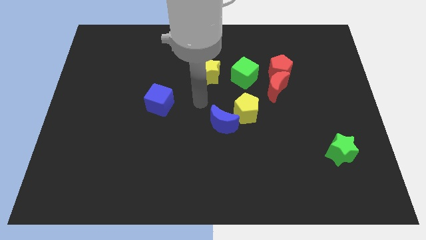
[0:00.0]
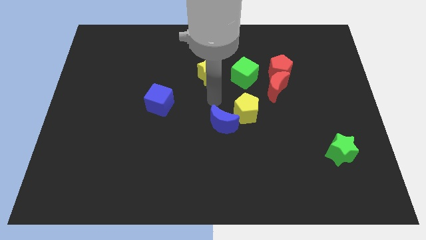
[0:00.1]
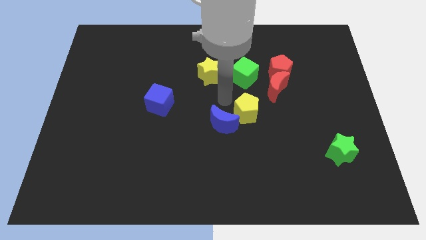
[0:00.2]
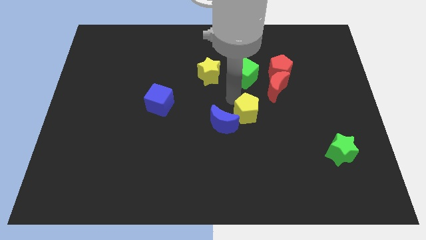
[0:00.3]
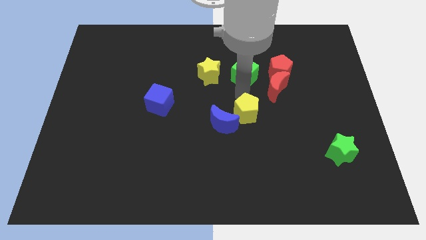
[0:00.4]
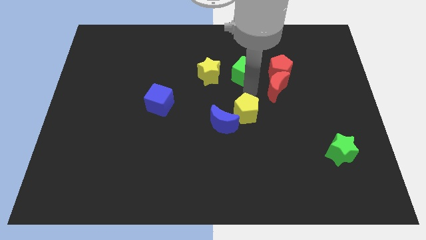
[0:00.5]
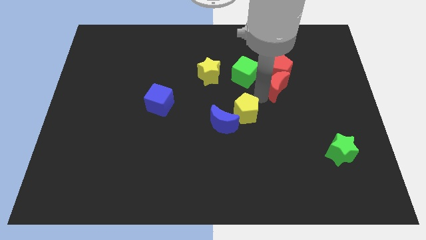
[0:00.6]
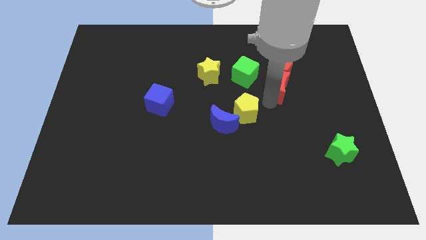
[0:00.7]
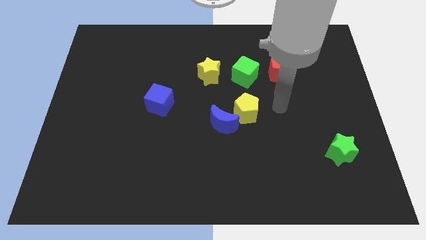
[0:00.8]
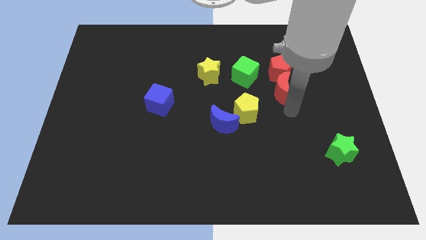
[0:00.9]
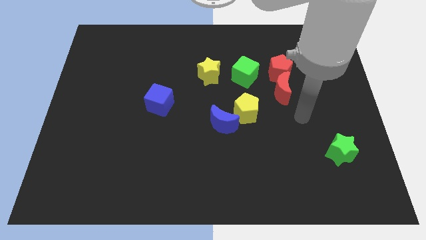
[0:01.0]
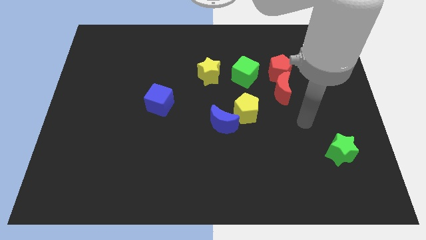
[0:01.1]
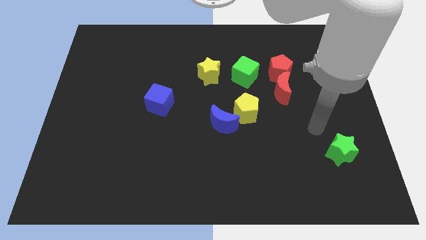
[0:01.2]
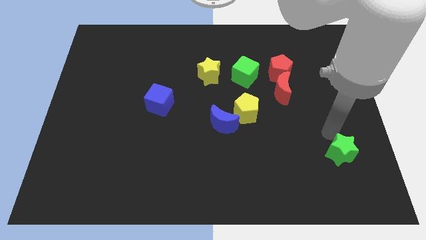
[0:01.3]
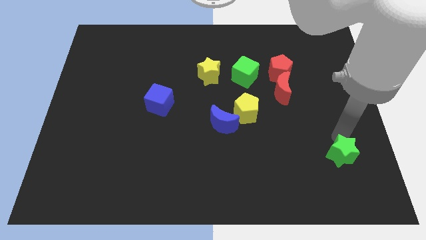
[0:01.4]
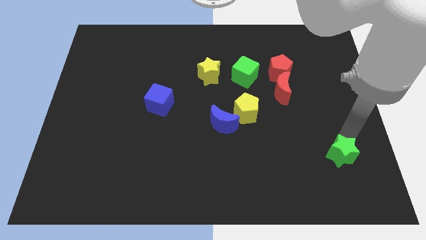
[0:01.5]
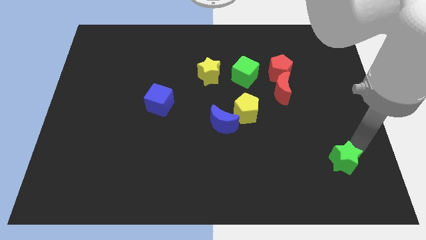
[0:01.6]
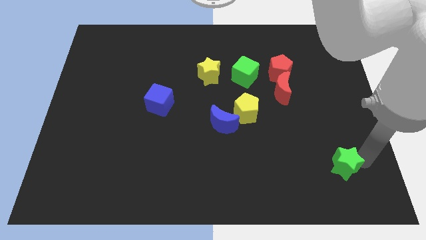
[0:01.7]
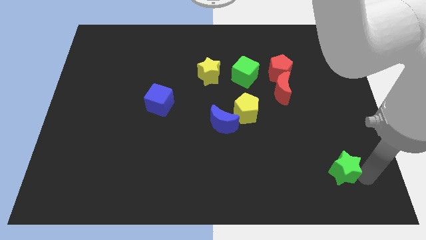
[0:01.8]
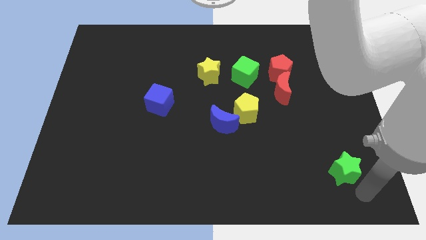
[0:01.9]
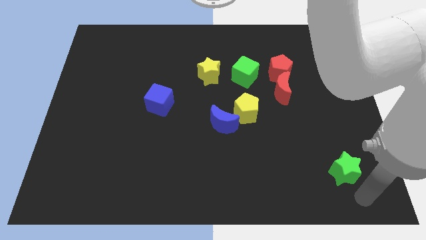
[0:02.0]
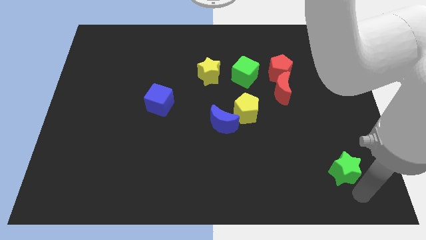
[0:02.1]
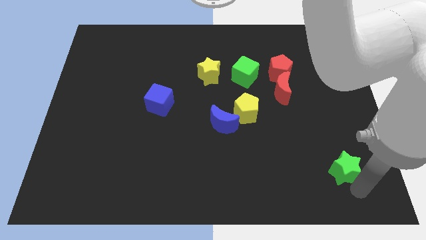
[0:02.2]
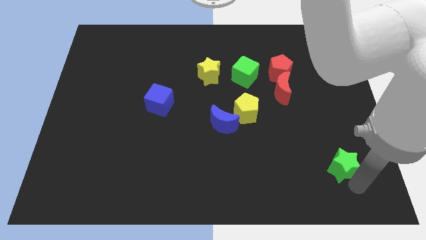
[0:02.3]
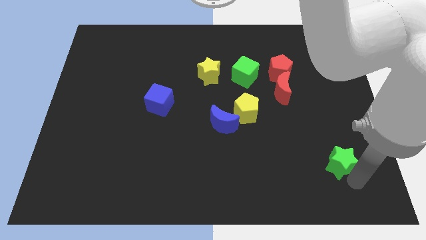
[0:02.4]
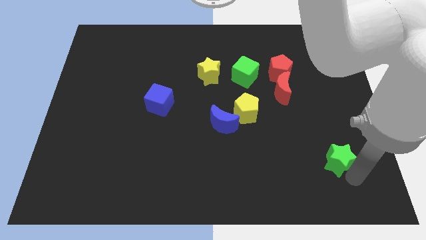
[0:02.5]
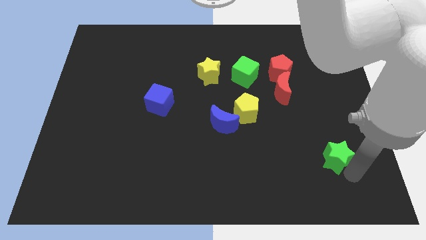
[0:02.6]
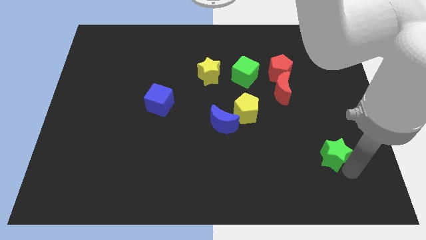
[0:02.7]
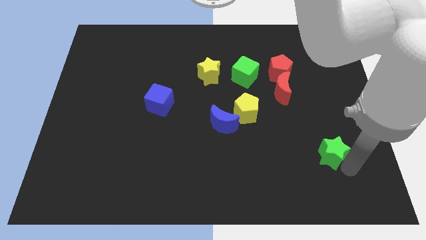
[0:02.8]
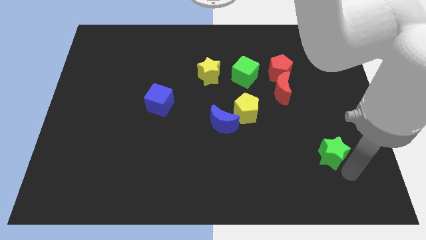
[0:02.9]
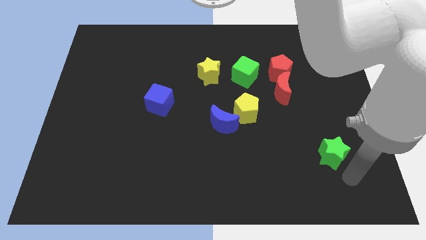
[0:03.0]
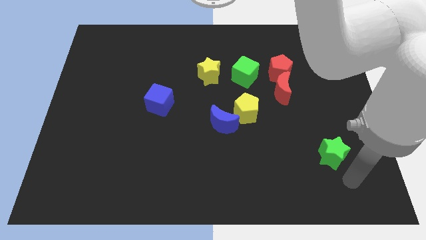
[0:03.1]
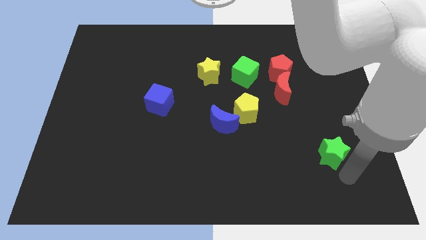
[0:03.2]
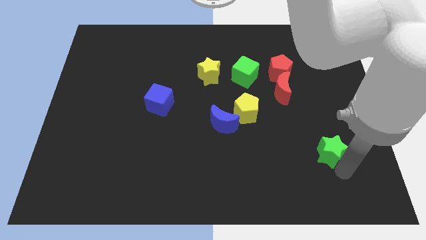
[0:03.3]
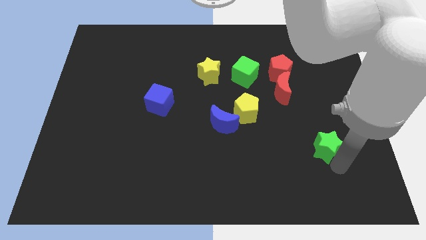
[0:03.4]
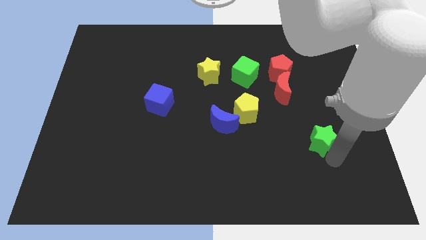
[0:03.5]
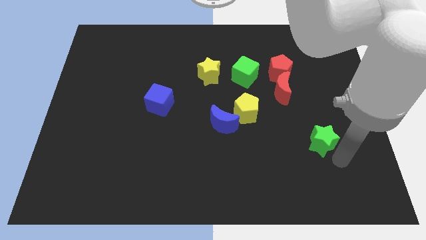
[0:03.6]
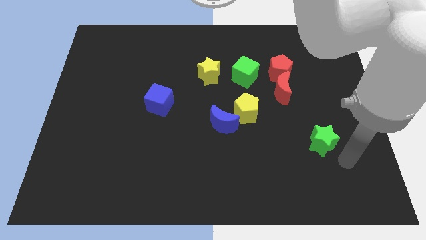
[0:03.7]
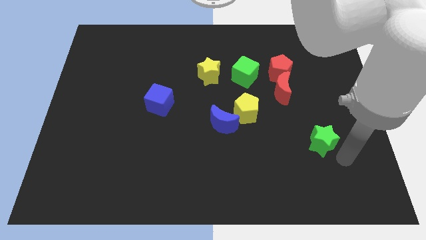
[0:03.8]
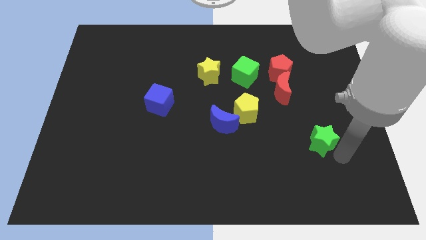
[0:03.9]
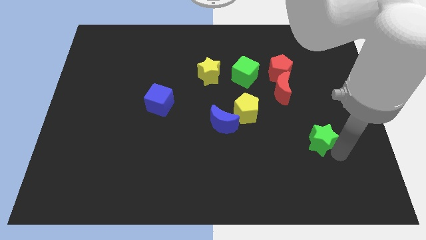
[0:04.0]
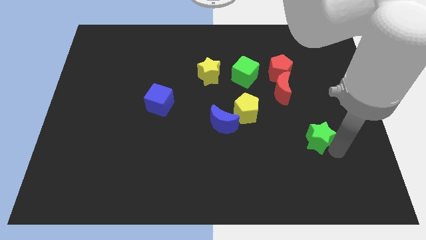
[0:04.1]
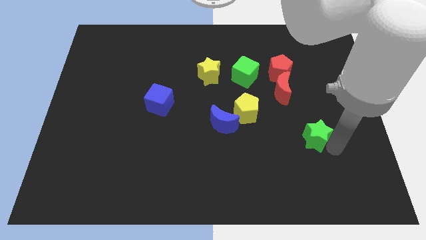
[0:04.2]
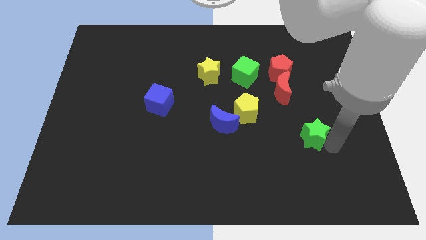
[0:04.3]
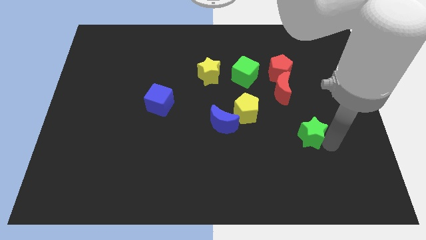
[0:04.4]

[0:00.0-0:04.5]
slightly push the green star upwards and to the left

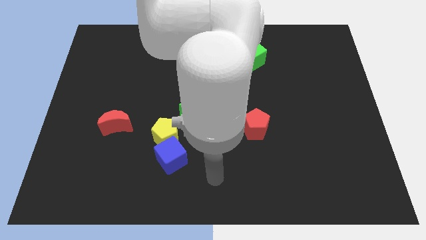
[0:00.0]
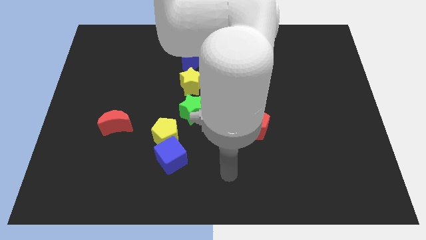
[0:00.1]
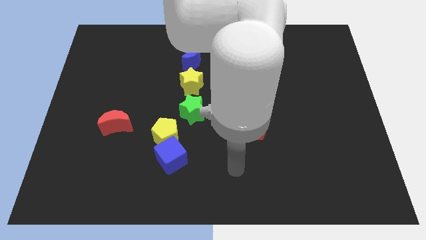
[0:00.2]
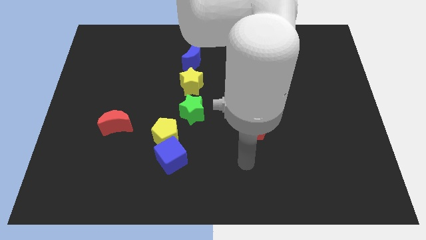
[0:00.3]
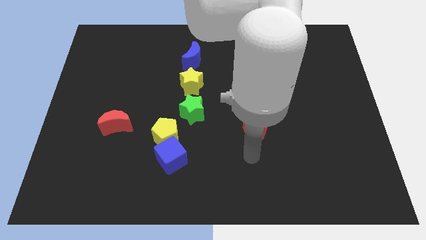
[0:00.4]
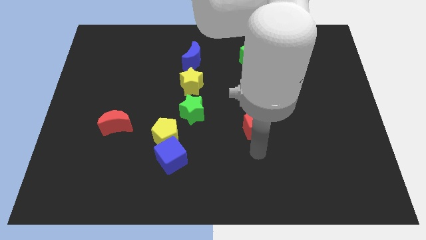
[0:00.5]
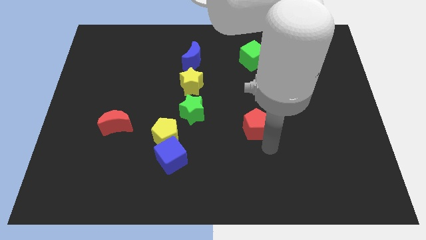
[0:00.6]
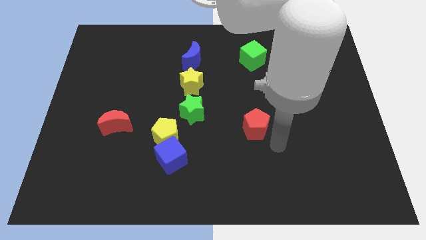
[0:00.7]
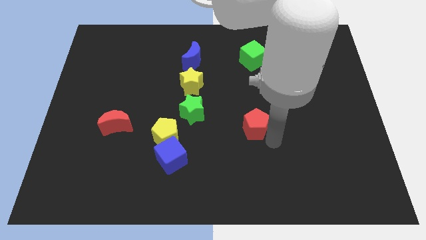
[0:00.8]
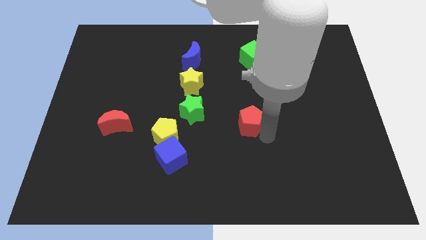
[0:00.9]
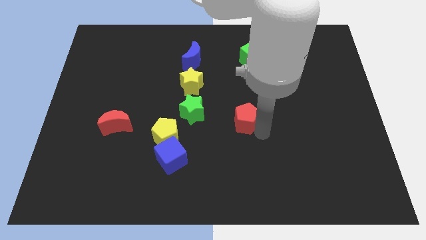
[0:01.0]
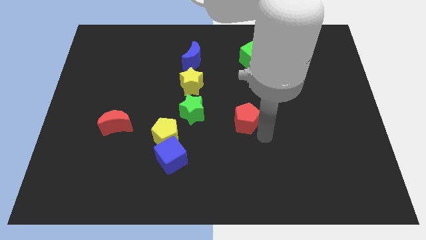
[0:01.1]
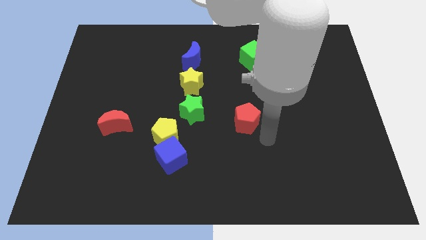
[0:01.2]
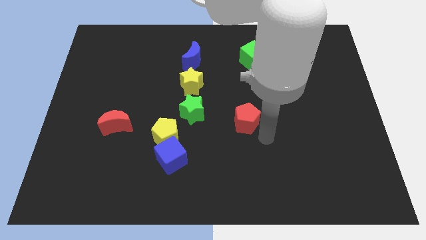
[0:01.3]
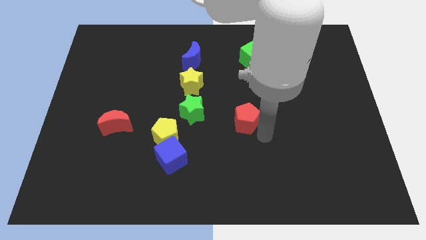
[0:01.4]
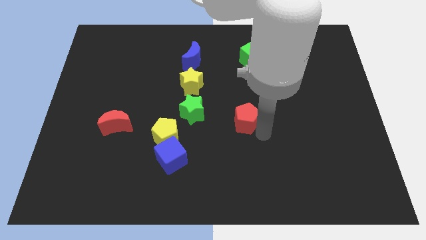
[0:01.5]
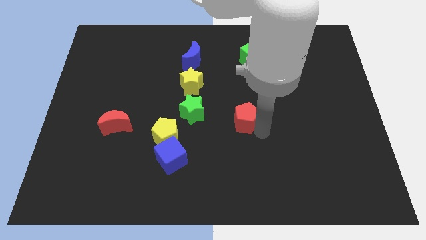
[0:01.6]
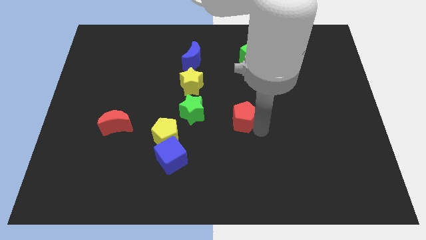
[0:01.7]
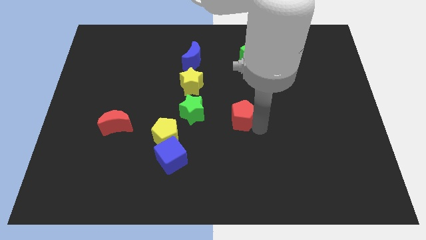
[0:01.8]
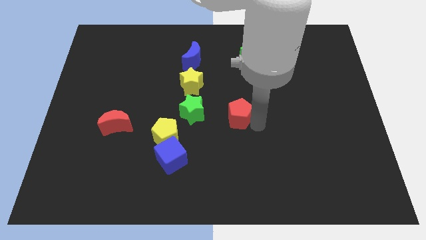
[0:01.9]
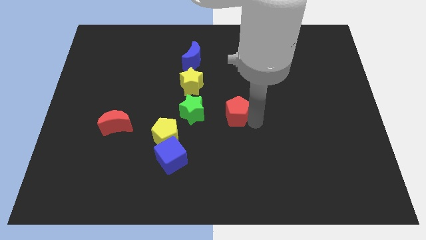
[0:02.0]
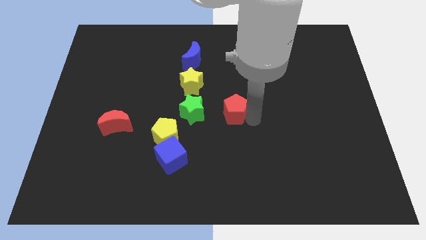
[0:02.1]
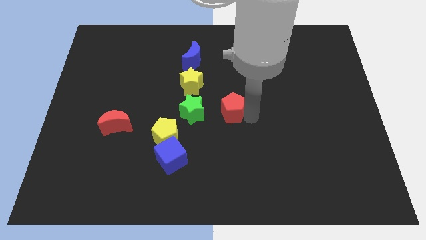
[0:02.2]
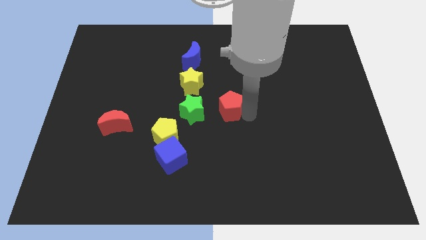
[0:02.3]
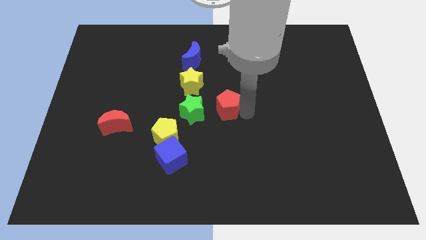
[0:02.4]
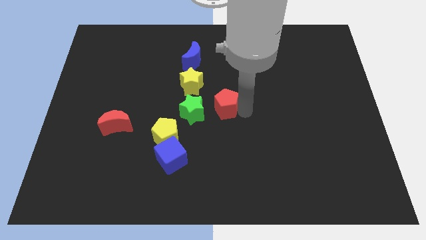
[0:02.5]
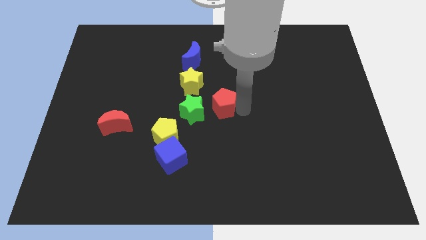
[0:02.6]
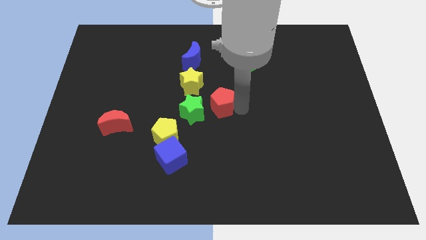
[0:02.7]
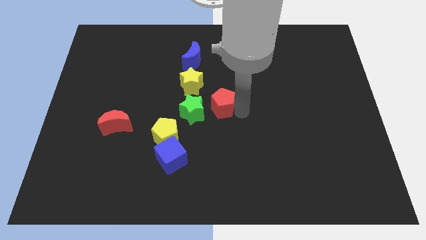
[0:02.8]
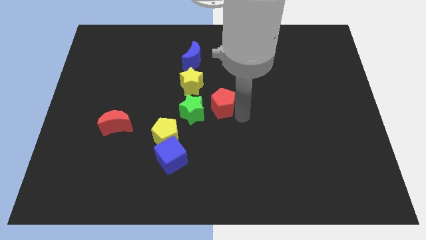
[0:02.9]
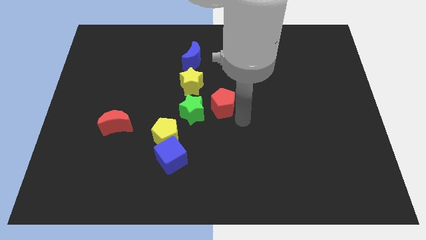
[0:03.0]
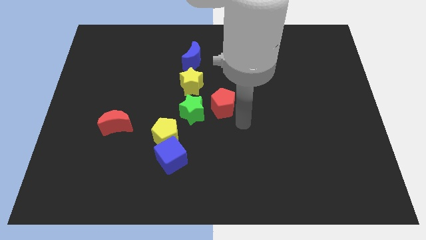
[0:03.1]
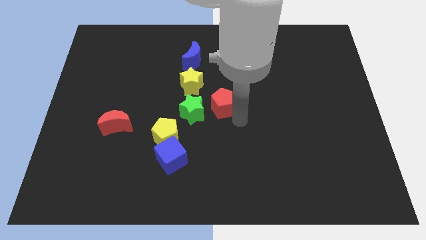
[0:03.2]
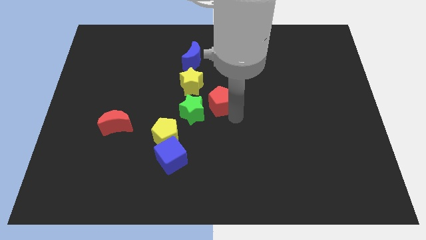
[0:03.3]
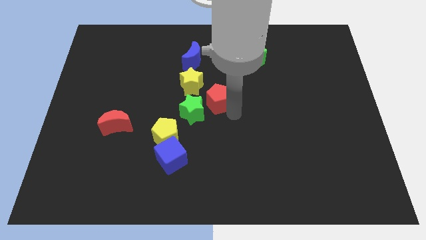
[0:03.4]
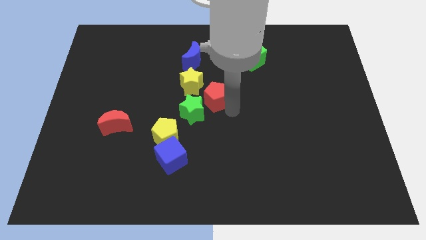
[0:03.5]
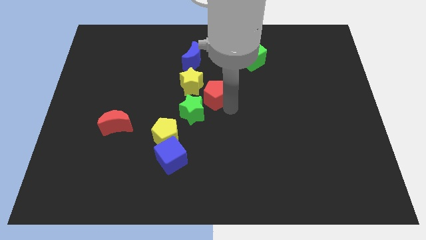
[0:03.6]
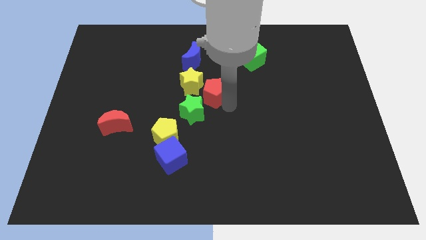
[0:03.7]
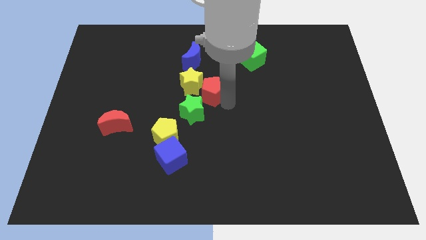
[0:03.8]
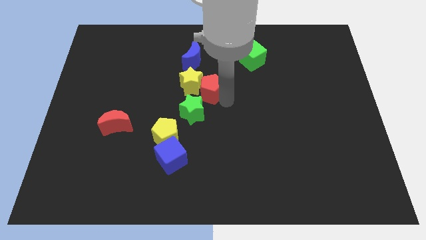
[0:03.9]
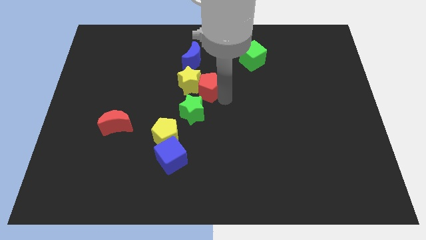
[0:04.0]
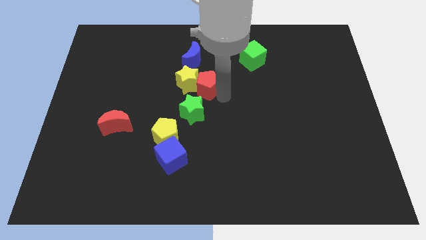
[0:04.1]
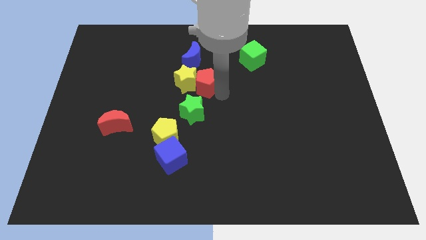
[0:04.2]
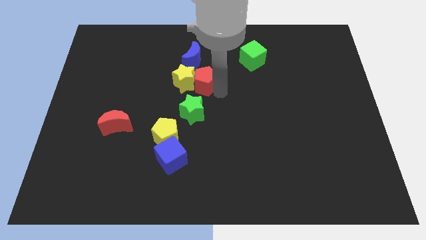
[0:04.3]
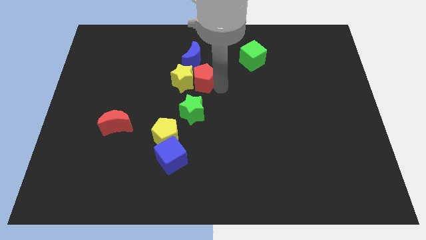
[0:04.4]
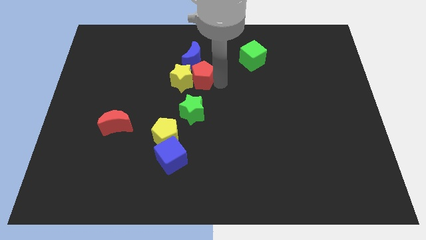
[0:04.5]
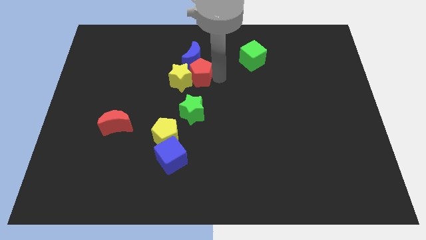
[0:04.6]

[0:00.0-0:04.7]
slide the red pentagon up and left
